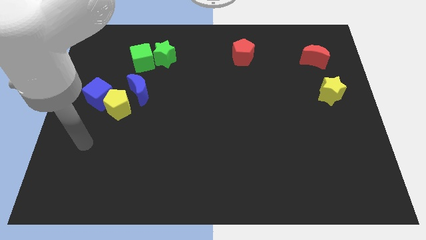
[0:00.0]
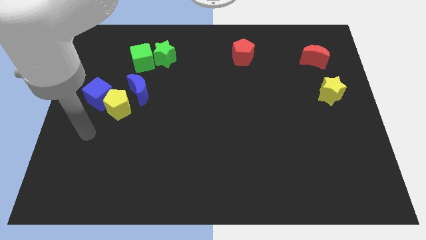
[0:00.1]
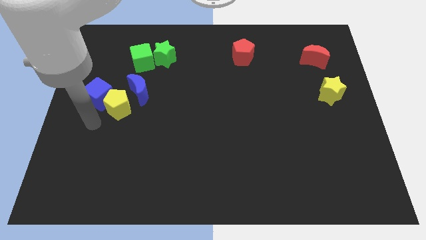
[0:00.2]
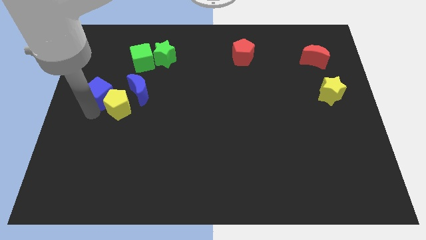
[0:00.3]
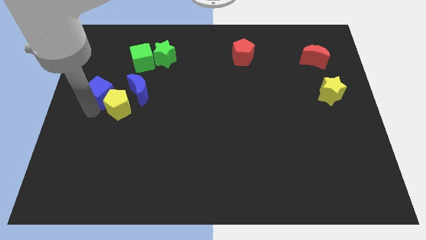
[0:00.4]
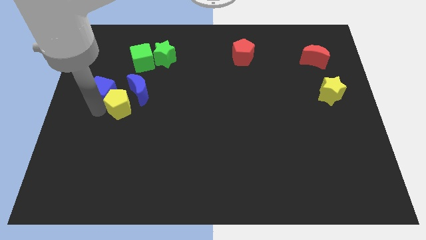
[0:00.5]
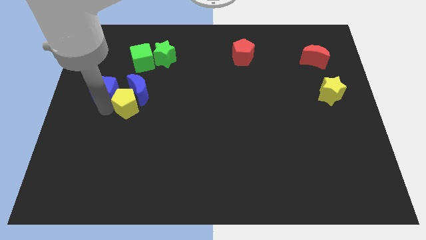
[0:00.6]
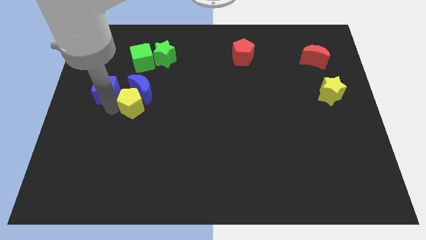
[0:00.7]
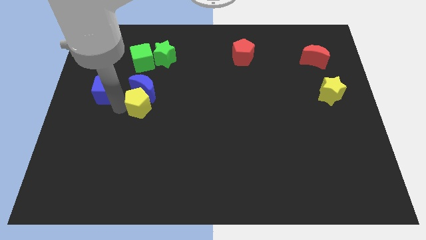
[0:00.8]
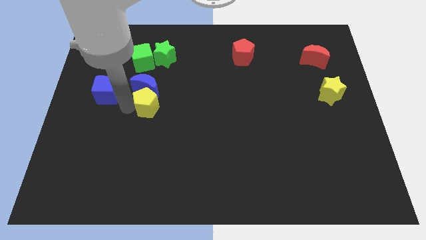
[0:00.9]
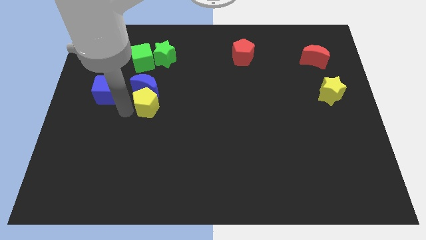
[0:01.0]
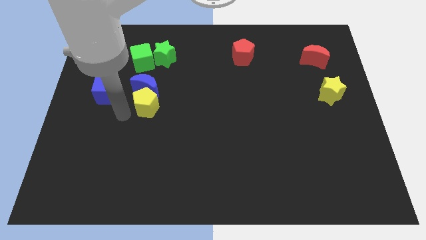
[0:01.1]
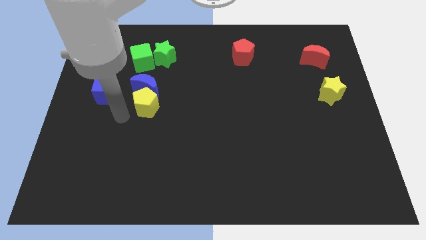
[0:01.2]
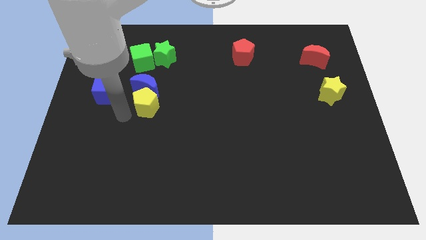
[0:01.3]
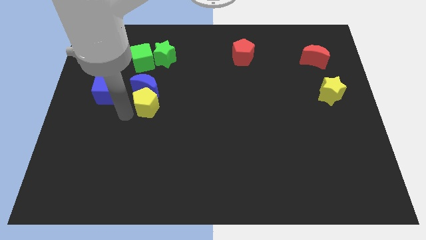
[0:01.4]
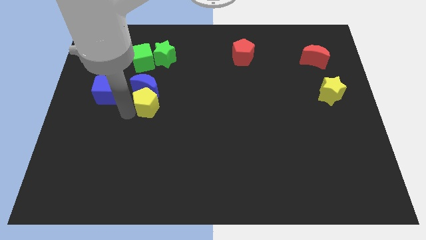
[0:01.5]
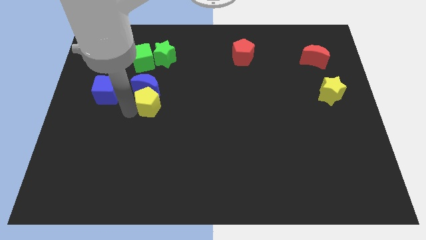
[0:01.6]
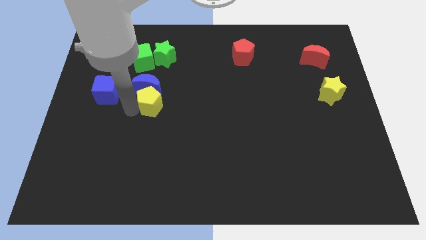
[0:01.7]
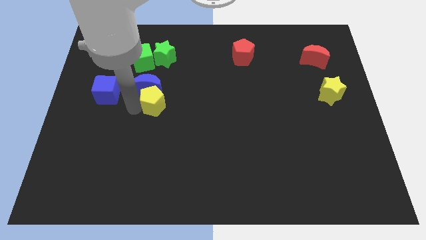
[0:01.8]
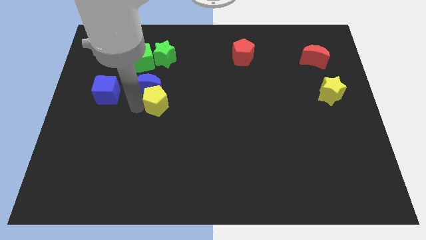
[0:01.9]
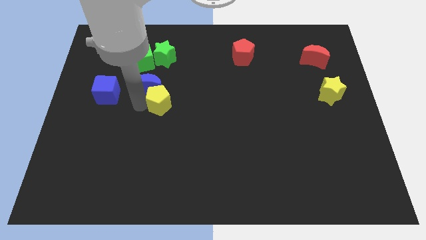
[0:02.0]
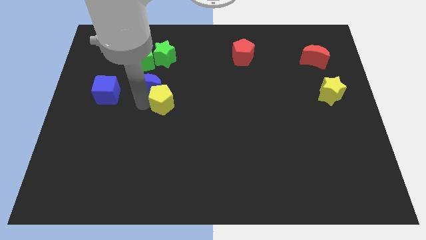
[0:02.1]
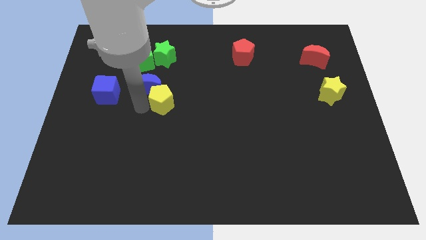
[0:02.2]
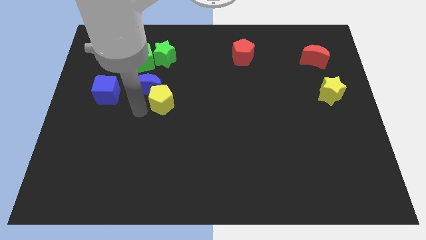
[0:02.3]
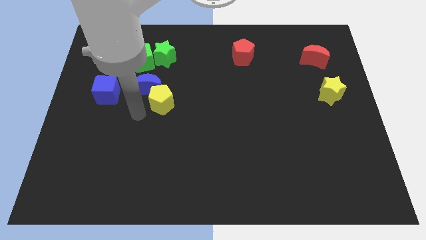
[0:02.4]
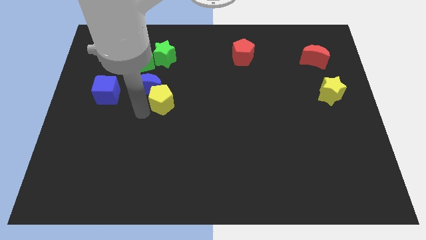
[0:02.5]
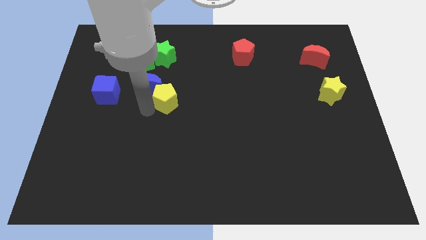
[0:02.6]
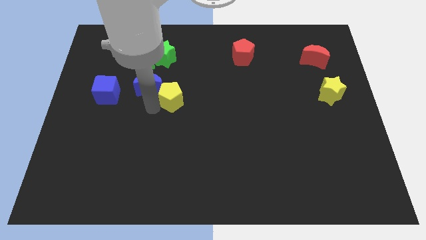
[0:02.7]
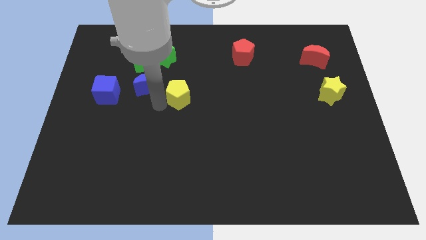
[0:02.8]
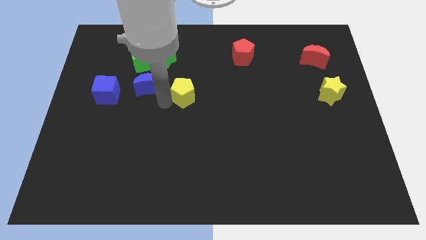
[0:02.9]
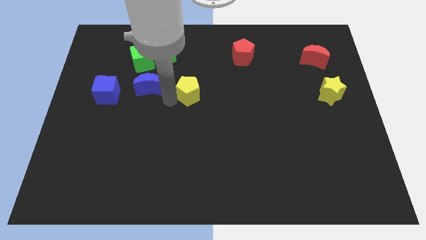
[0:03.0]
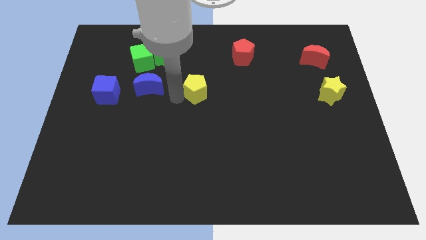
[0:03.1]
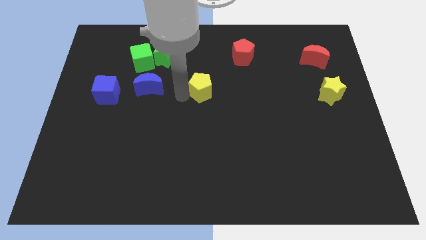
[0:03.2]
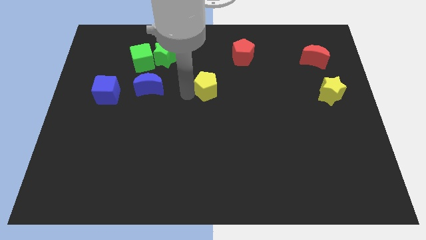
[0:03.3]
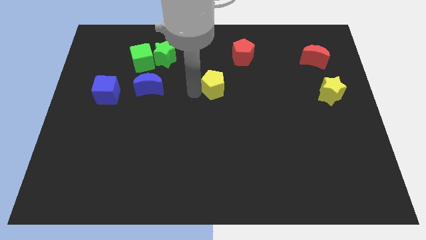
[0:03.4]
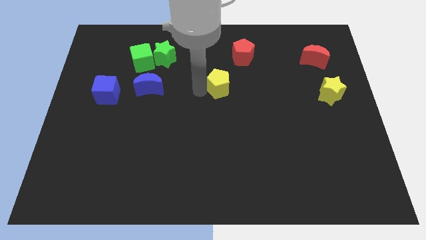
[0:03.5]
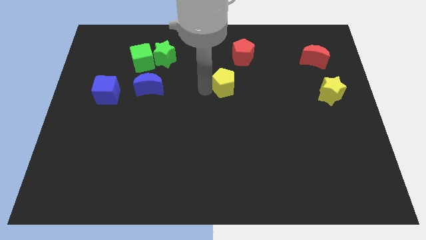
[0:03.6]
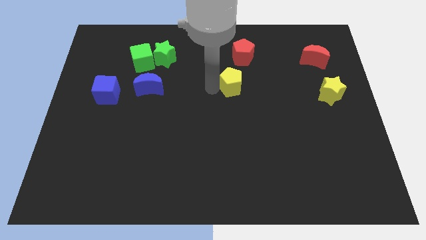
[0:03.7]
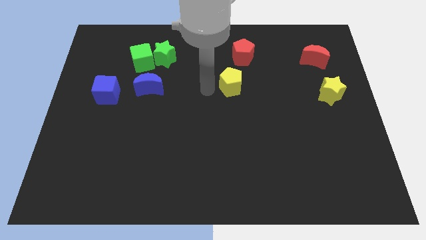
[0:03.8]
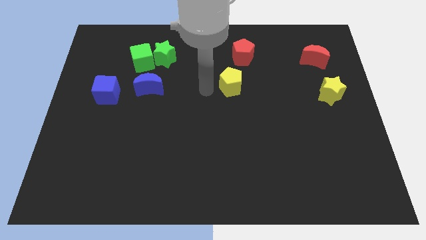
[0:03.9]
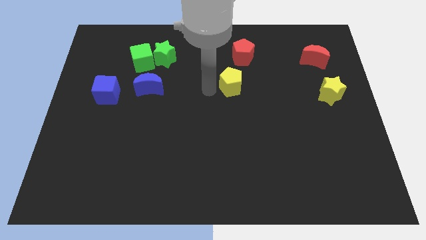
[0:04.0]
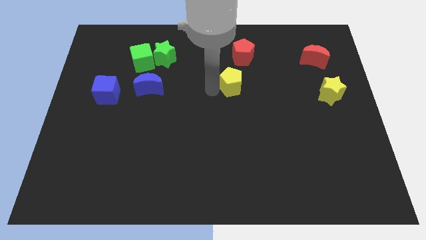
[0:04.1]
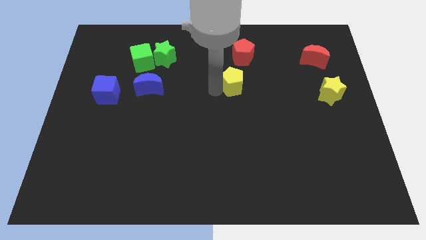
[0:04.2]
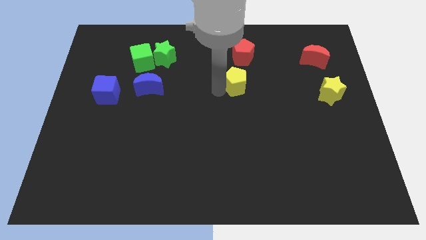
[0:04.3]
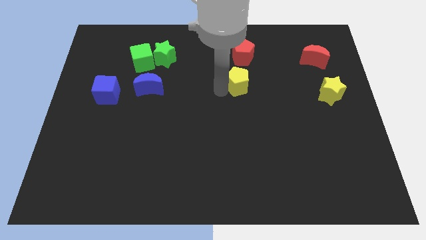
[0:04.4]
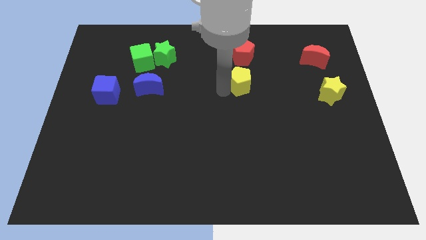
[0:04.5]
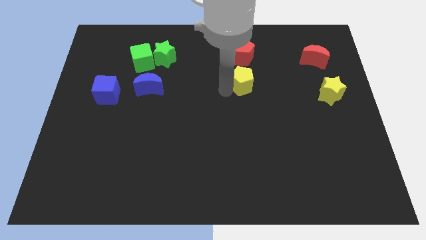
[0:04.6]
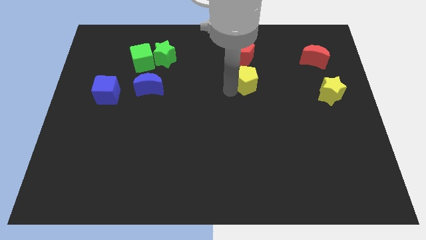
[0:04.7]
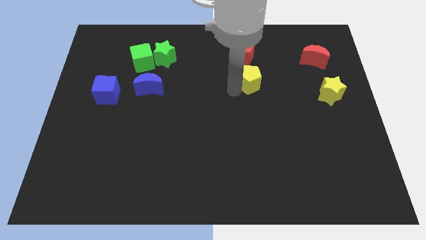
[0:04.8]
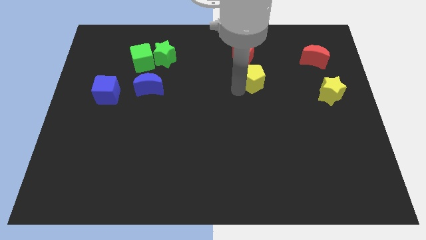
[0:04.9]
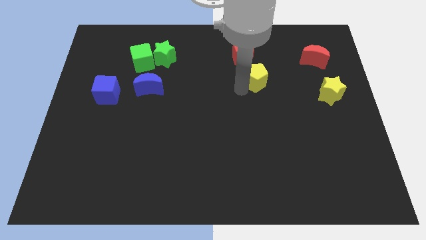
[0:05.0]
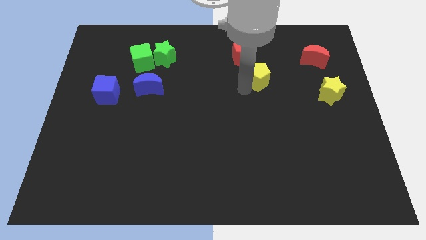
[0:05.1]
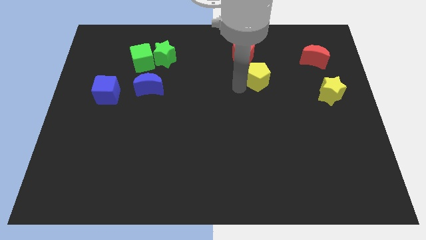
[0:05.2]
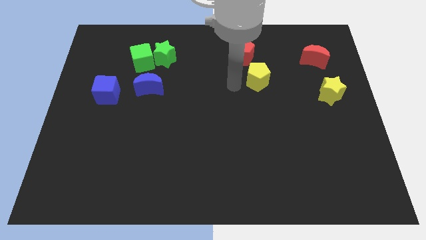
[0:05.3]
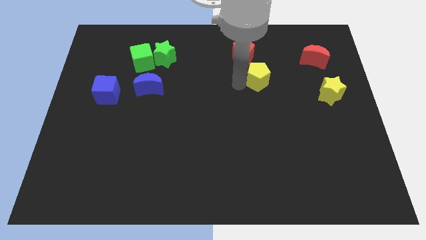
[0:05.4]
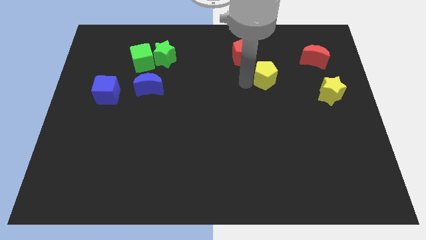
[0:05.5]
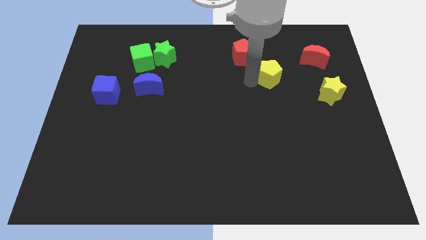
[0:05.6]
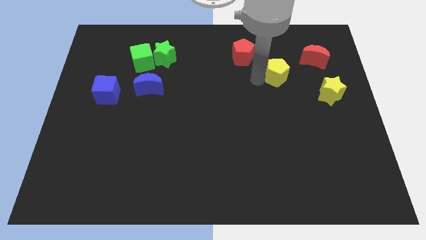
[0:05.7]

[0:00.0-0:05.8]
slide the yellow pentagon diagonally down and to the left of the red moon

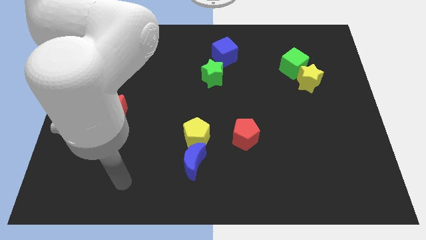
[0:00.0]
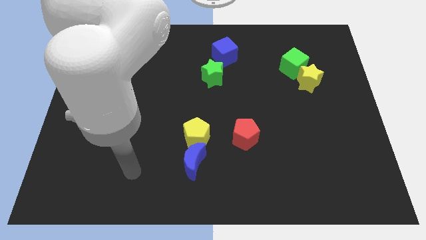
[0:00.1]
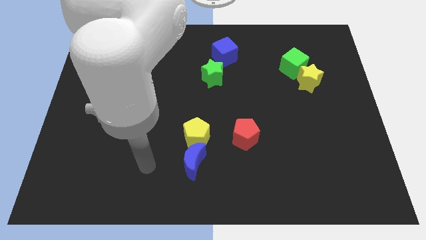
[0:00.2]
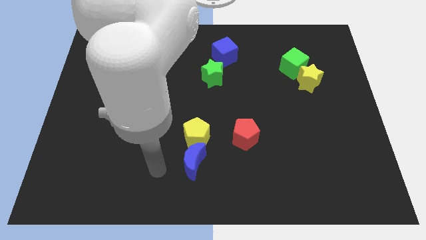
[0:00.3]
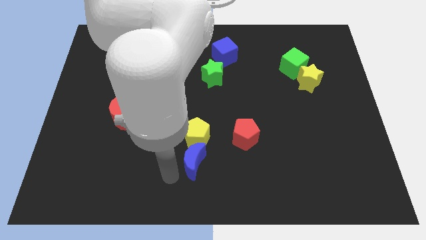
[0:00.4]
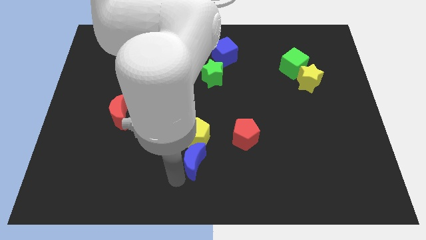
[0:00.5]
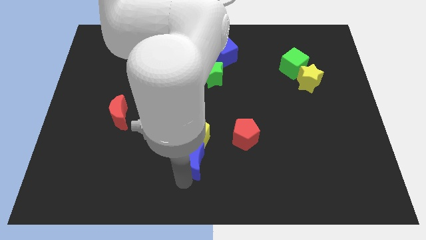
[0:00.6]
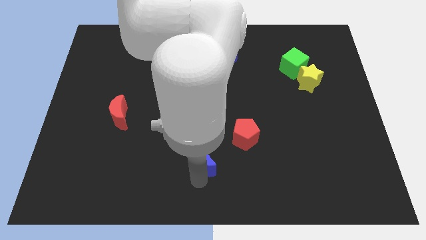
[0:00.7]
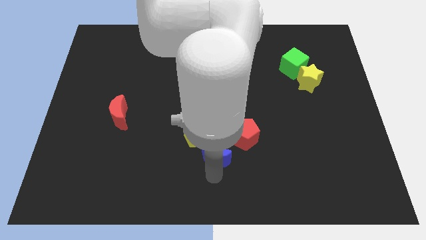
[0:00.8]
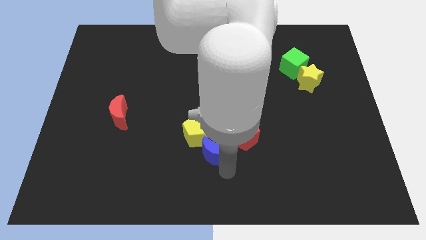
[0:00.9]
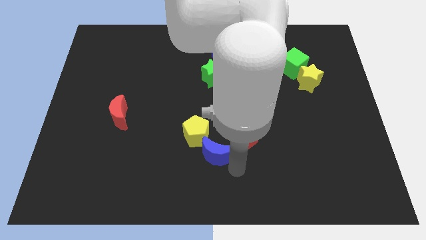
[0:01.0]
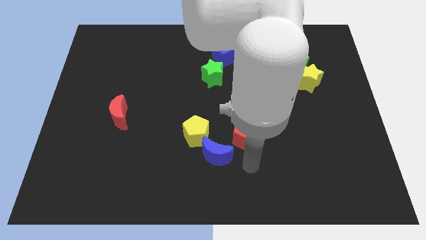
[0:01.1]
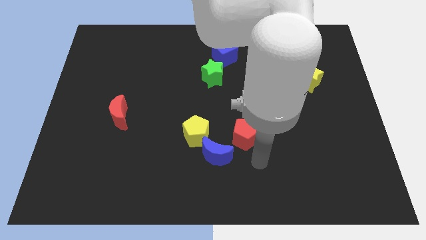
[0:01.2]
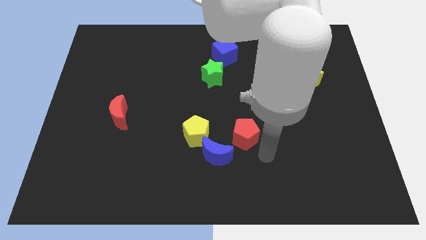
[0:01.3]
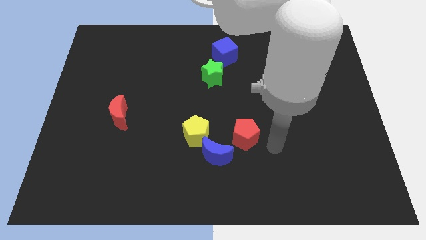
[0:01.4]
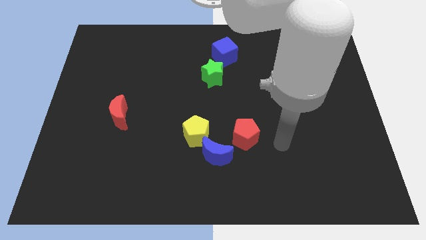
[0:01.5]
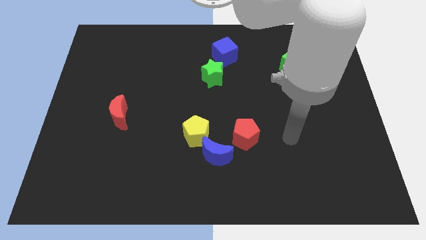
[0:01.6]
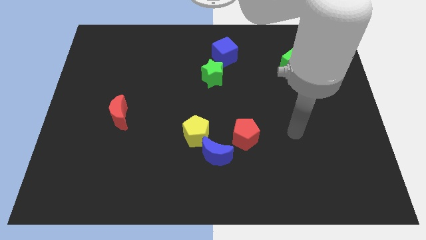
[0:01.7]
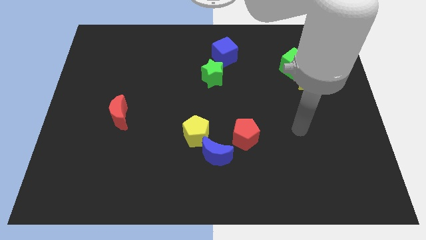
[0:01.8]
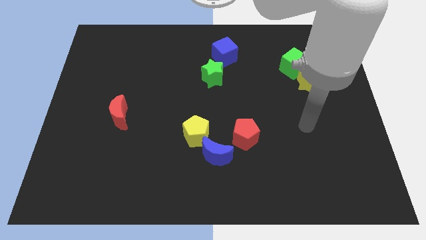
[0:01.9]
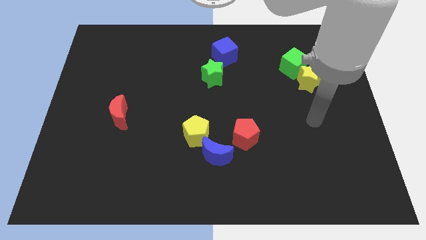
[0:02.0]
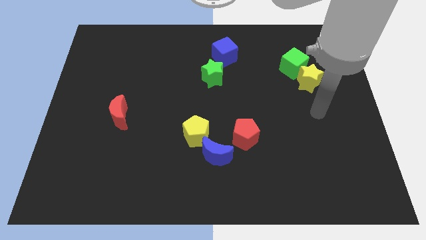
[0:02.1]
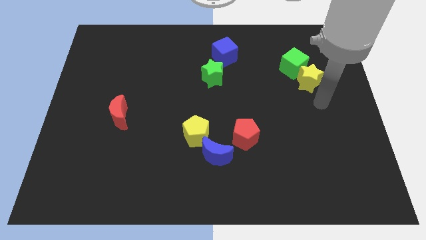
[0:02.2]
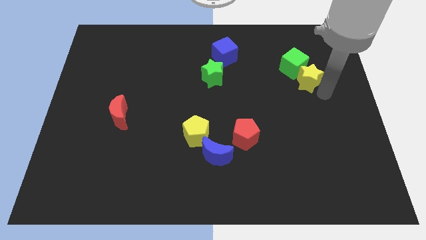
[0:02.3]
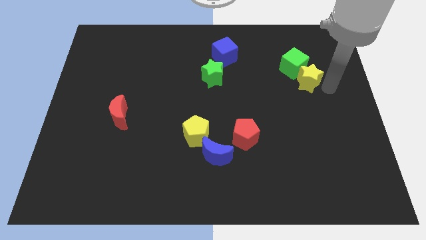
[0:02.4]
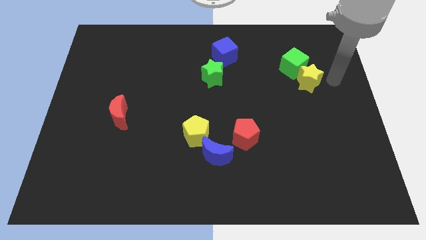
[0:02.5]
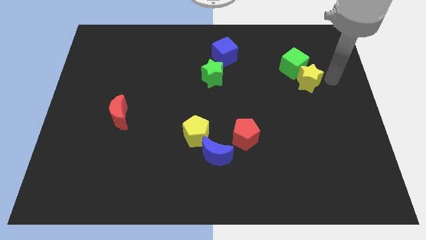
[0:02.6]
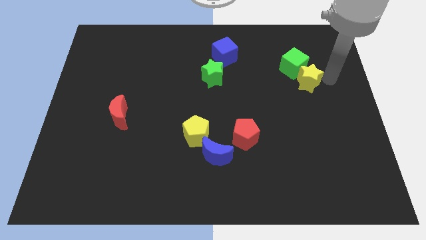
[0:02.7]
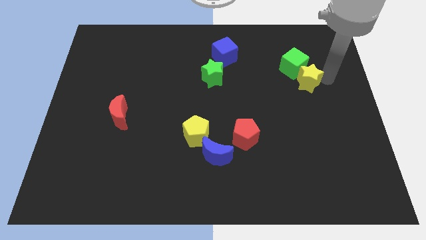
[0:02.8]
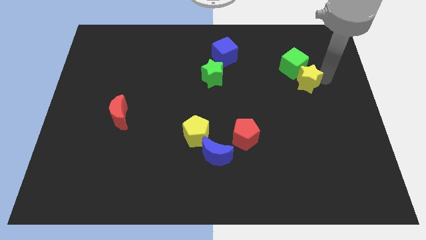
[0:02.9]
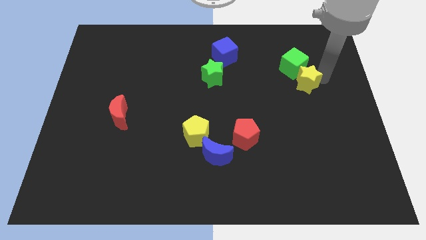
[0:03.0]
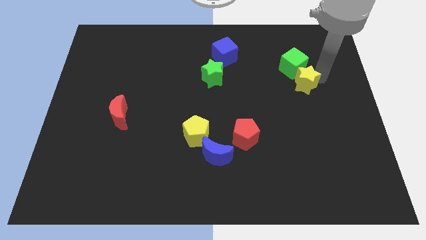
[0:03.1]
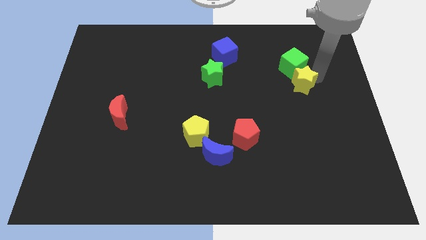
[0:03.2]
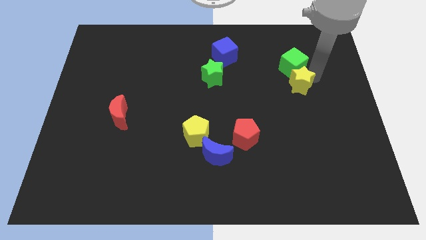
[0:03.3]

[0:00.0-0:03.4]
slide the yellow star diagonally down and to the left of the green cube
